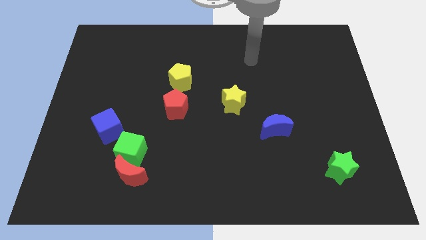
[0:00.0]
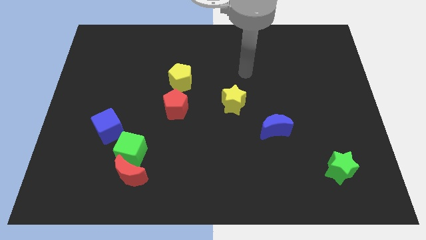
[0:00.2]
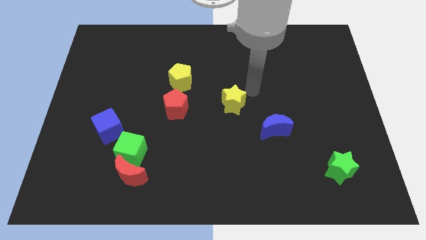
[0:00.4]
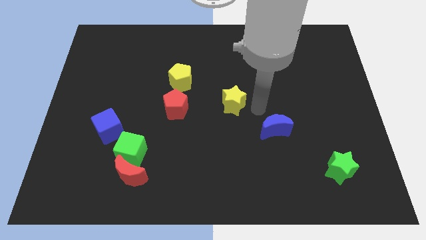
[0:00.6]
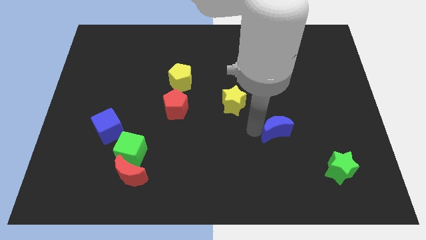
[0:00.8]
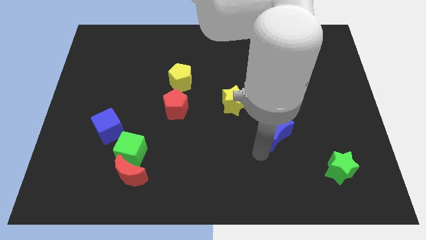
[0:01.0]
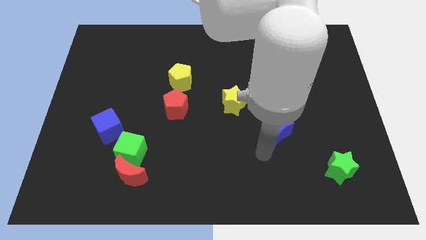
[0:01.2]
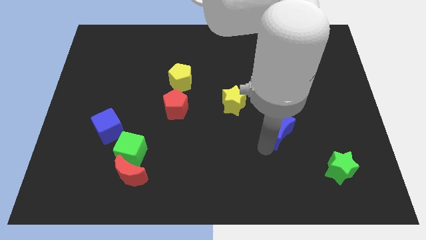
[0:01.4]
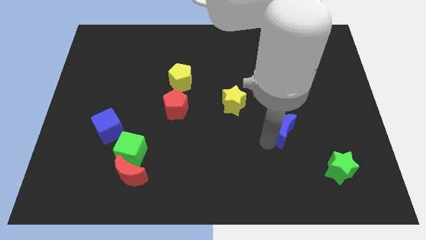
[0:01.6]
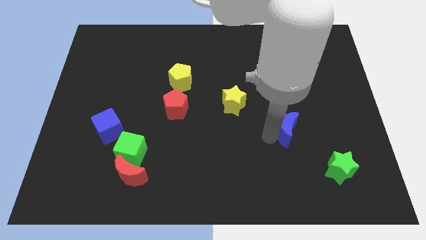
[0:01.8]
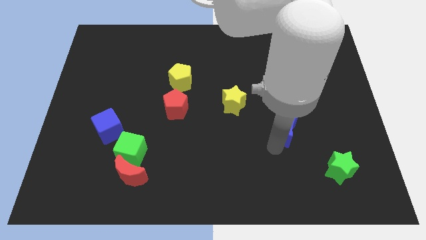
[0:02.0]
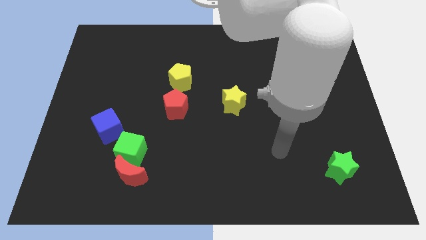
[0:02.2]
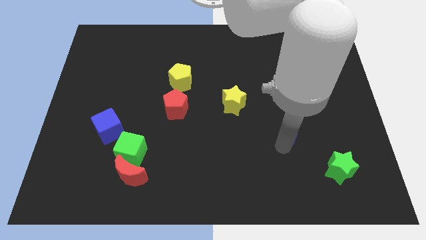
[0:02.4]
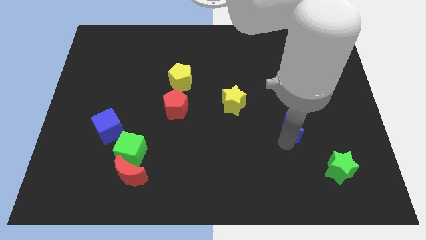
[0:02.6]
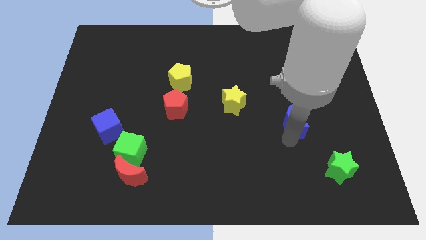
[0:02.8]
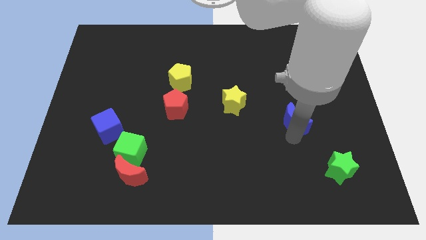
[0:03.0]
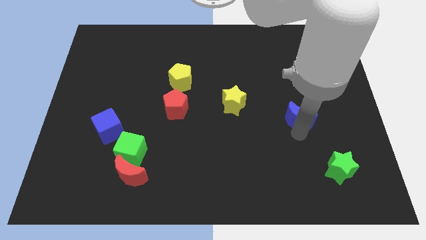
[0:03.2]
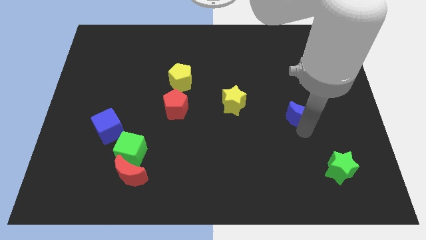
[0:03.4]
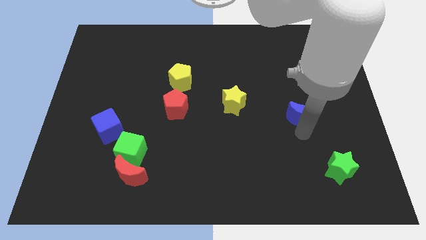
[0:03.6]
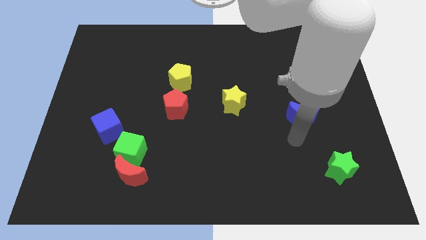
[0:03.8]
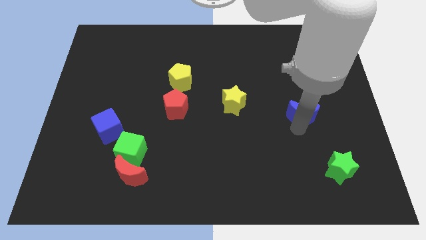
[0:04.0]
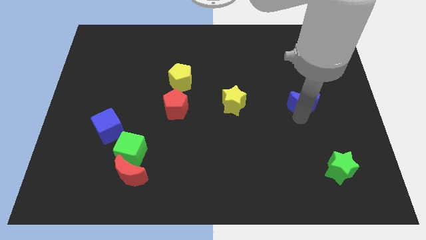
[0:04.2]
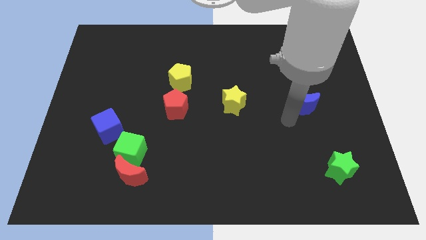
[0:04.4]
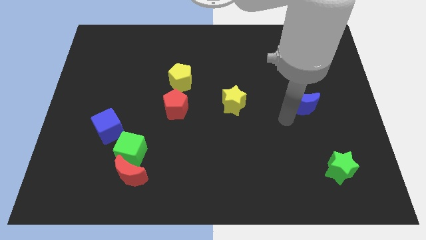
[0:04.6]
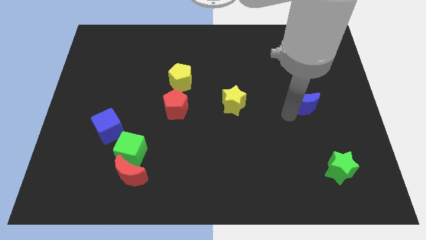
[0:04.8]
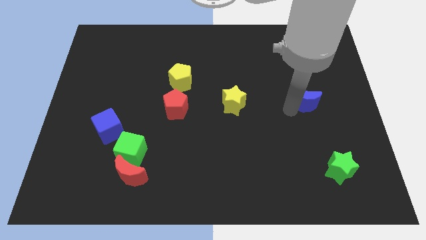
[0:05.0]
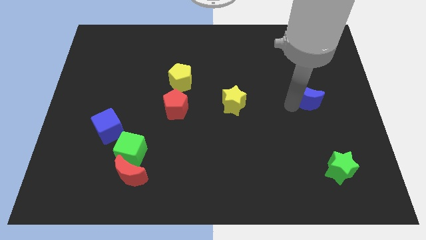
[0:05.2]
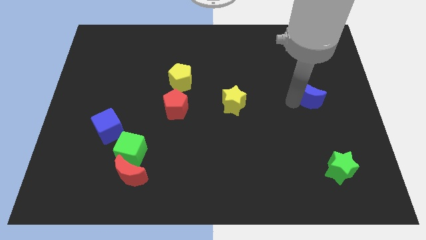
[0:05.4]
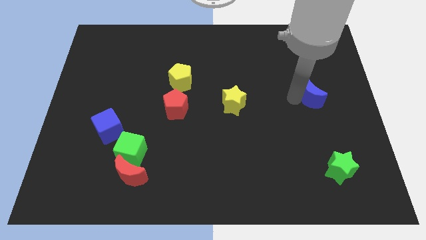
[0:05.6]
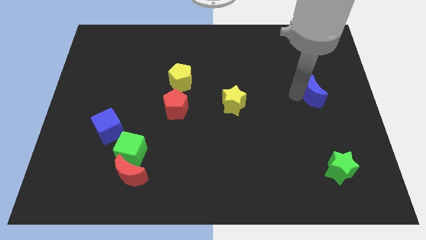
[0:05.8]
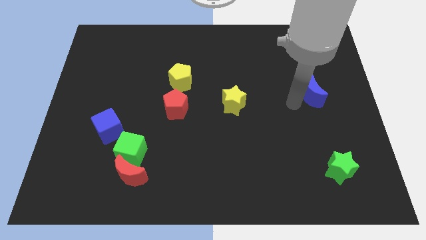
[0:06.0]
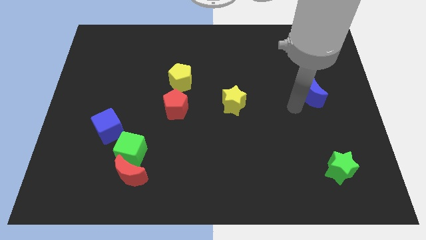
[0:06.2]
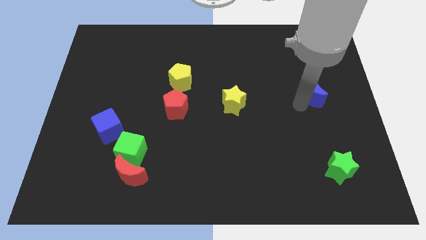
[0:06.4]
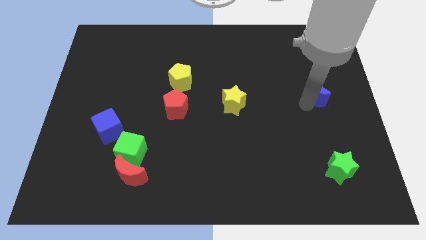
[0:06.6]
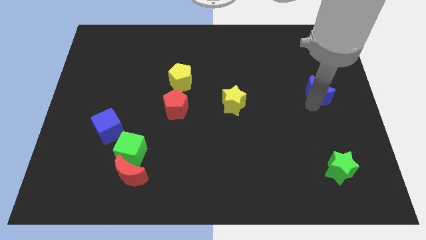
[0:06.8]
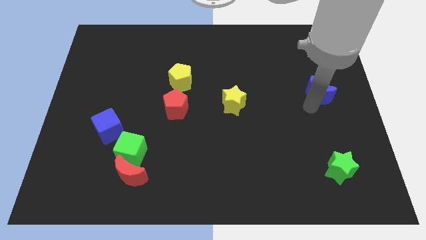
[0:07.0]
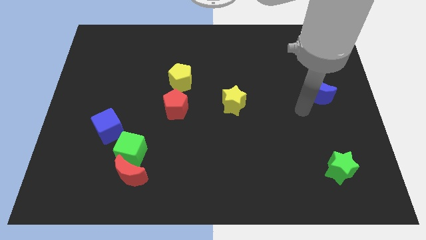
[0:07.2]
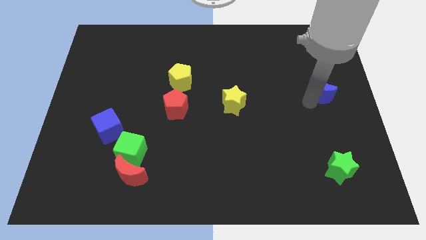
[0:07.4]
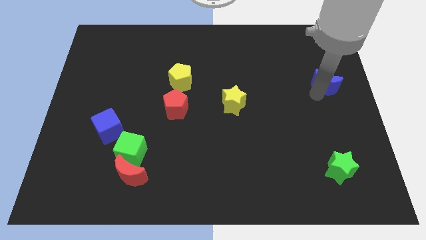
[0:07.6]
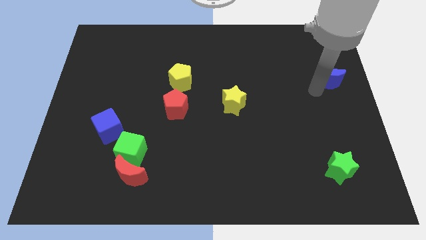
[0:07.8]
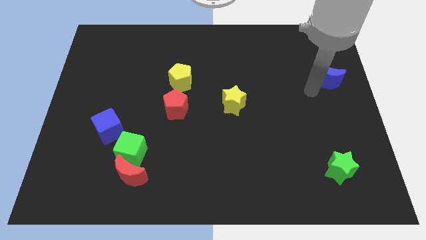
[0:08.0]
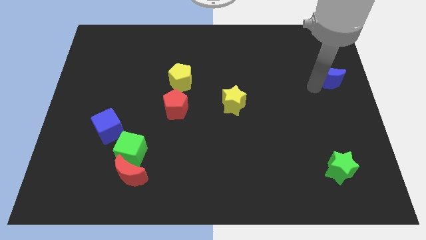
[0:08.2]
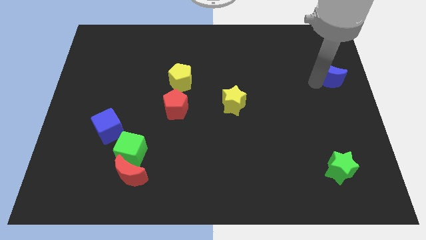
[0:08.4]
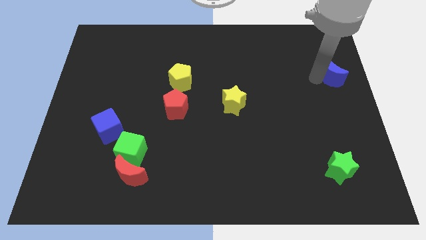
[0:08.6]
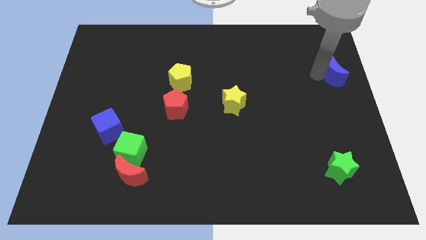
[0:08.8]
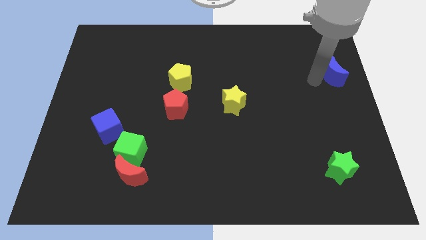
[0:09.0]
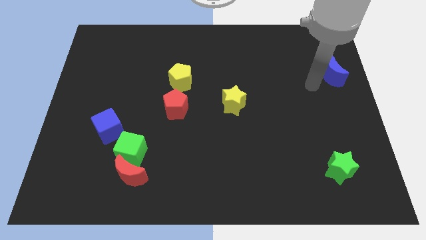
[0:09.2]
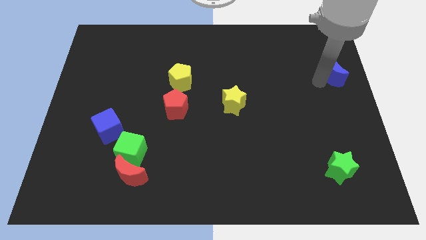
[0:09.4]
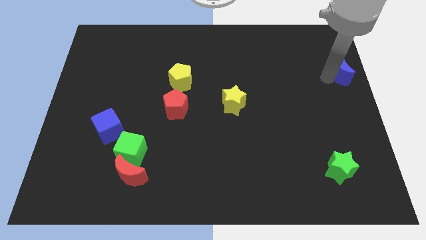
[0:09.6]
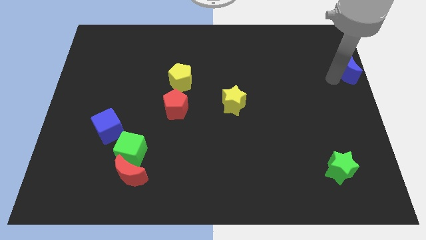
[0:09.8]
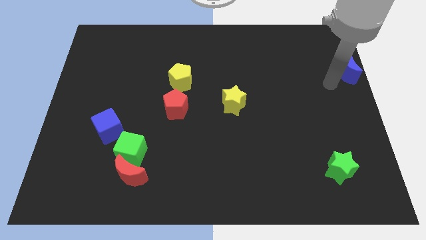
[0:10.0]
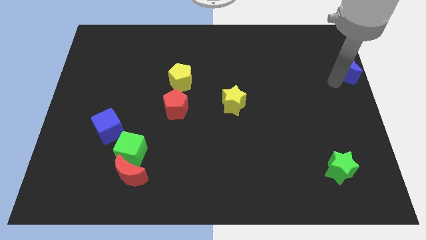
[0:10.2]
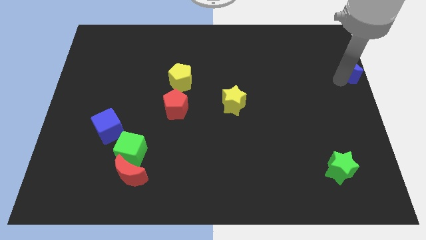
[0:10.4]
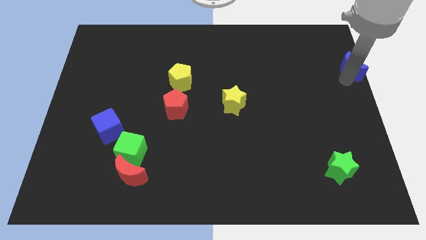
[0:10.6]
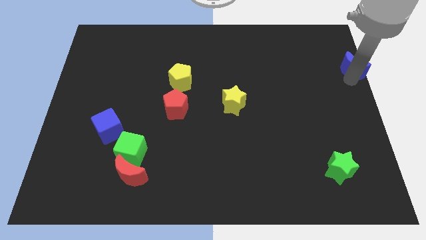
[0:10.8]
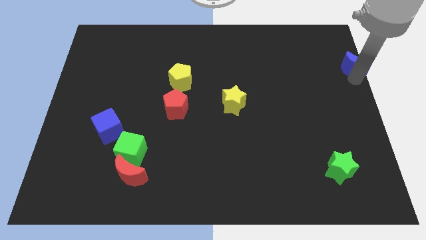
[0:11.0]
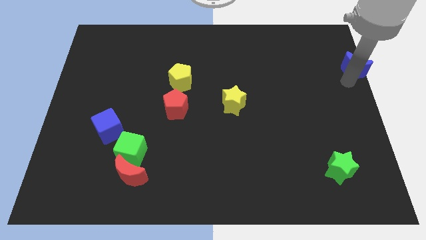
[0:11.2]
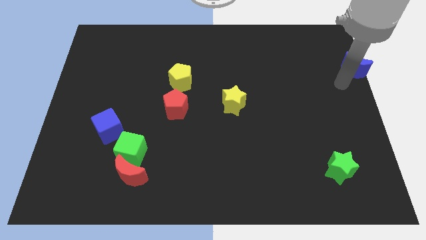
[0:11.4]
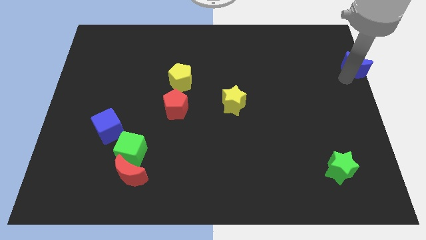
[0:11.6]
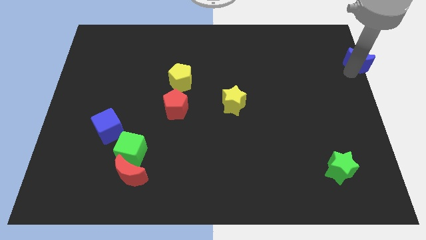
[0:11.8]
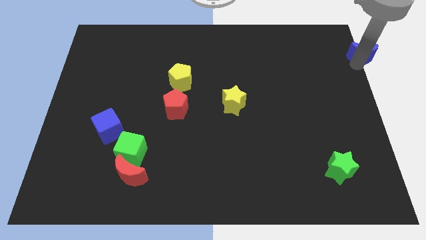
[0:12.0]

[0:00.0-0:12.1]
put the blue moon to the top right corner

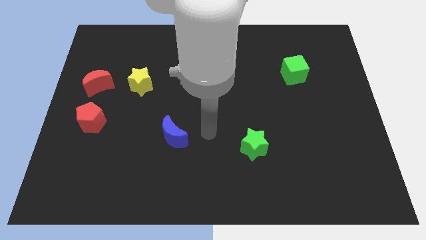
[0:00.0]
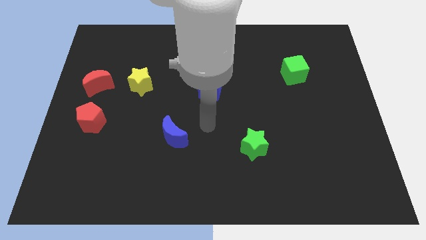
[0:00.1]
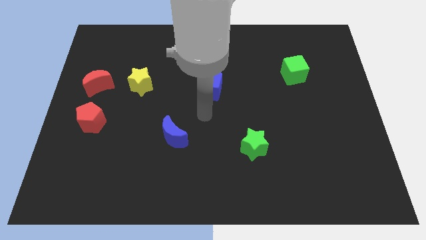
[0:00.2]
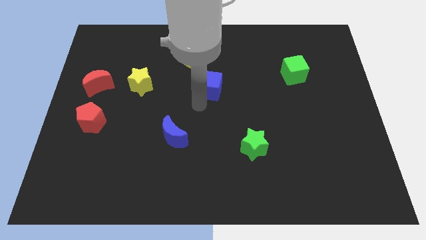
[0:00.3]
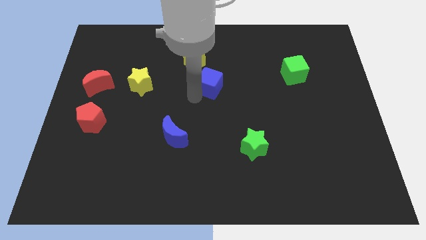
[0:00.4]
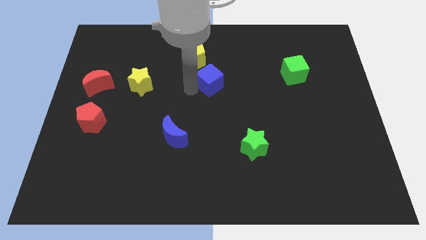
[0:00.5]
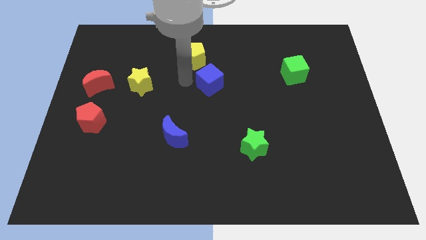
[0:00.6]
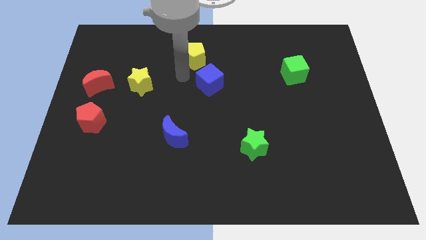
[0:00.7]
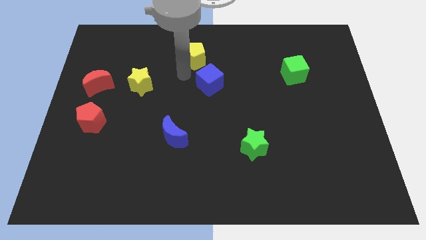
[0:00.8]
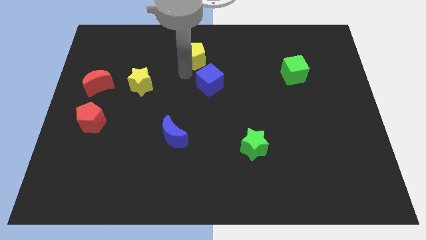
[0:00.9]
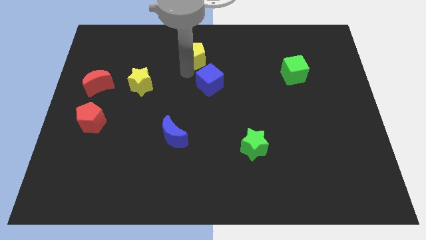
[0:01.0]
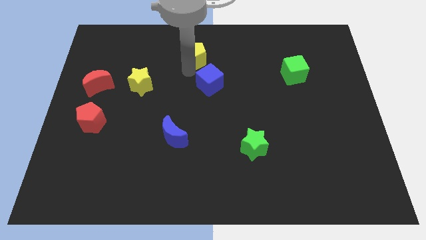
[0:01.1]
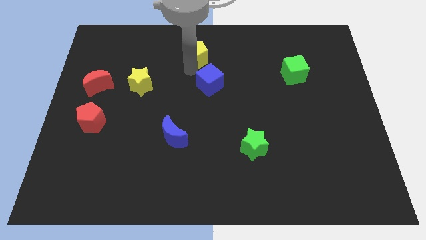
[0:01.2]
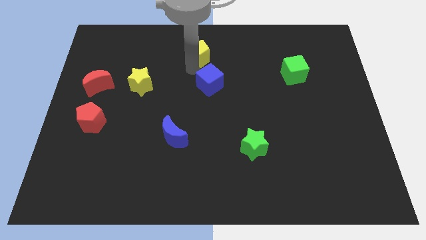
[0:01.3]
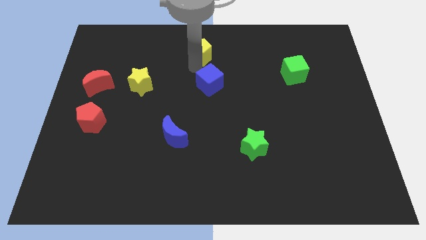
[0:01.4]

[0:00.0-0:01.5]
push the yellow pentagon to the top
